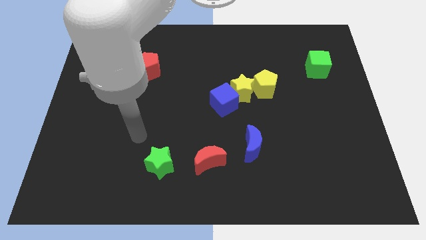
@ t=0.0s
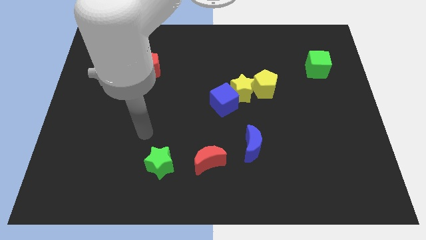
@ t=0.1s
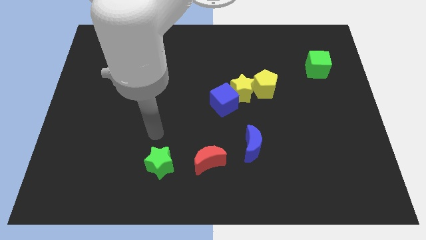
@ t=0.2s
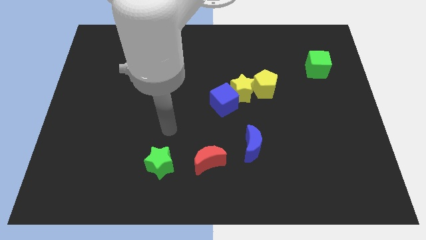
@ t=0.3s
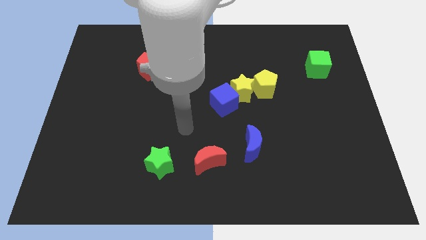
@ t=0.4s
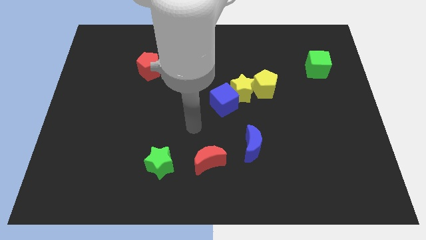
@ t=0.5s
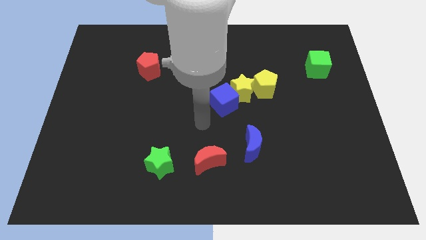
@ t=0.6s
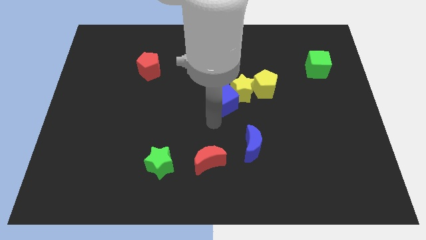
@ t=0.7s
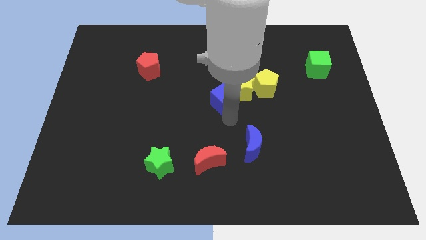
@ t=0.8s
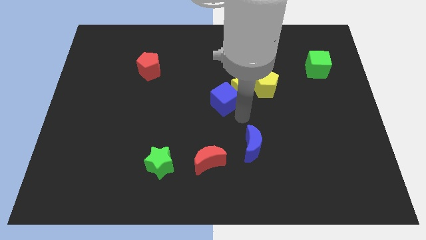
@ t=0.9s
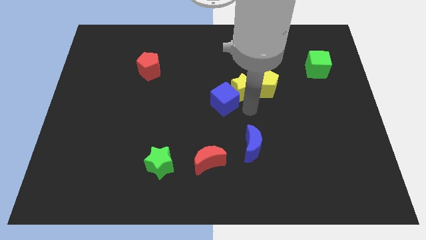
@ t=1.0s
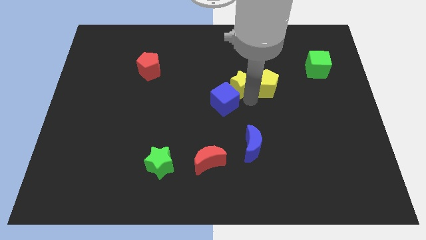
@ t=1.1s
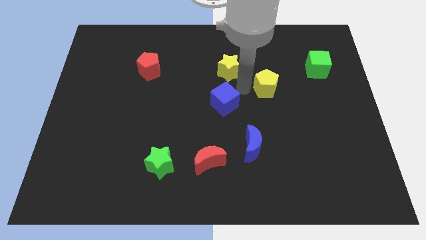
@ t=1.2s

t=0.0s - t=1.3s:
pull the blue cube apart from the yellow star

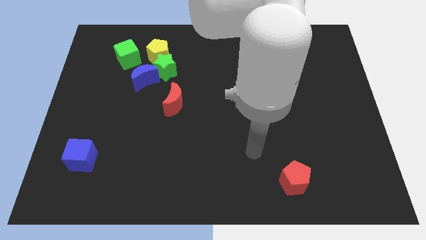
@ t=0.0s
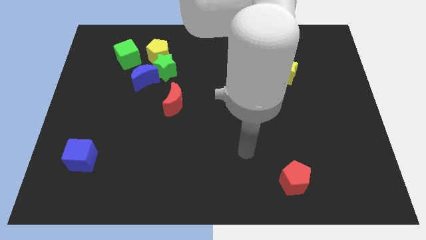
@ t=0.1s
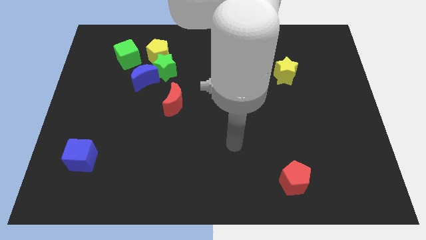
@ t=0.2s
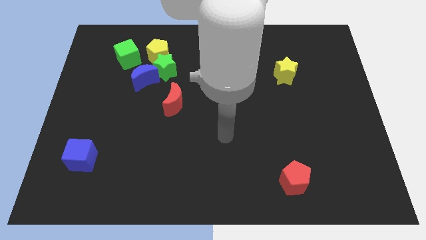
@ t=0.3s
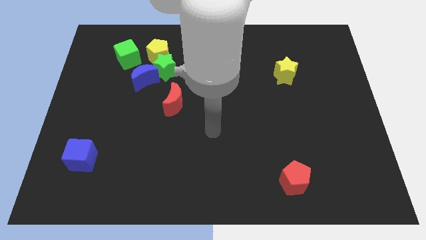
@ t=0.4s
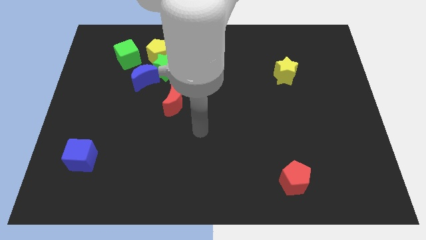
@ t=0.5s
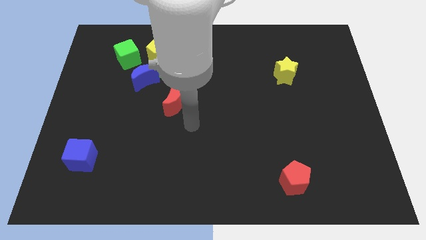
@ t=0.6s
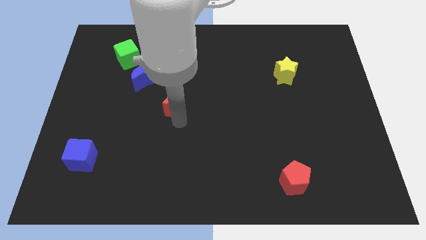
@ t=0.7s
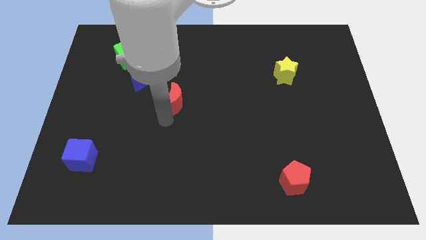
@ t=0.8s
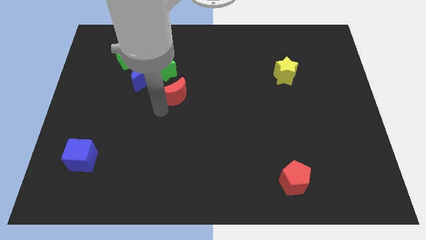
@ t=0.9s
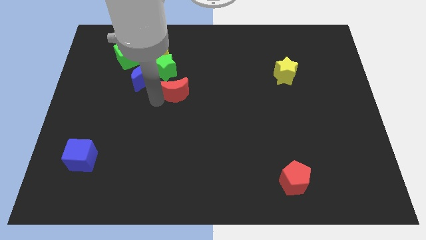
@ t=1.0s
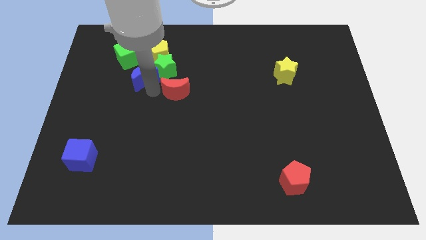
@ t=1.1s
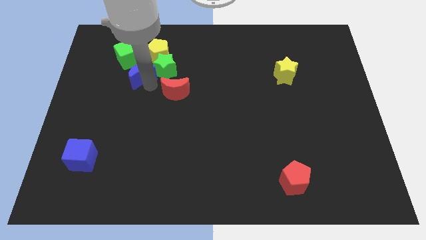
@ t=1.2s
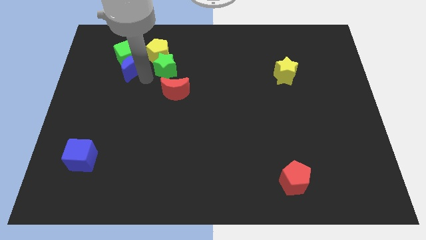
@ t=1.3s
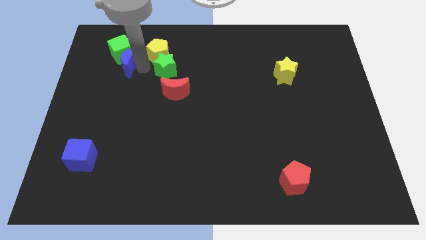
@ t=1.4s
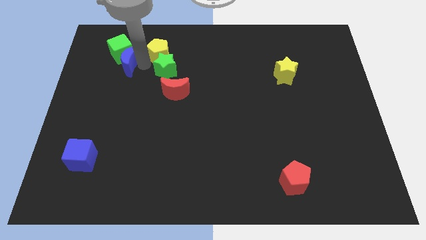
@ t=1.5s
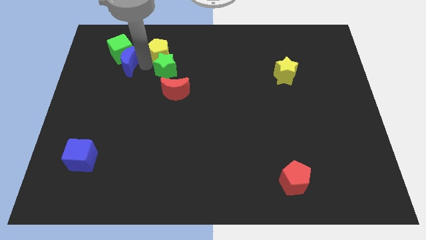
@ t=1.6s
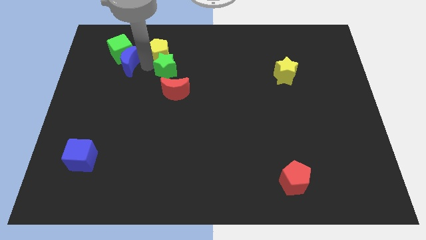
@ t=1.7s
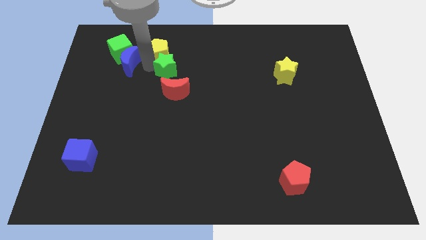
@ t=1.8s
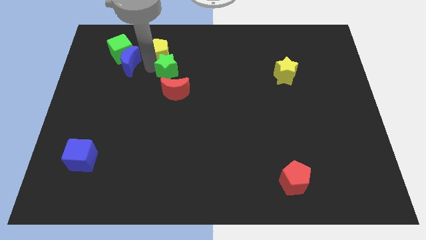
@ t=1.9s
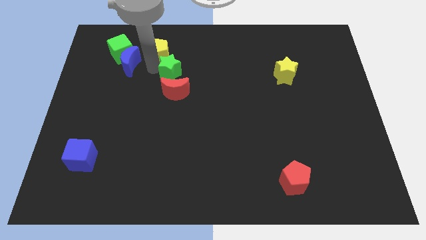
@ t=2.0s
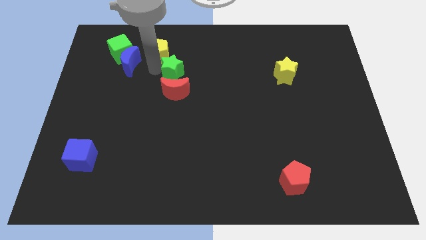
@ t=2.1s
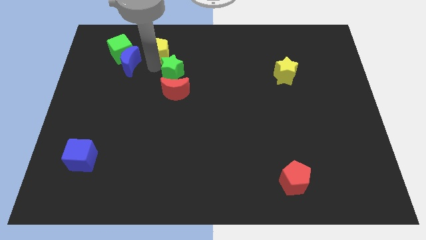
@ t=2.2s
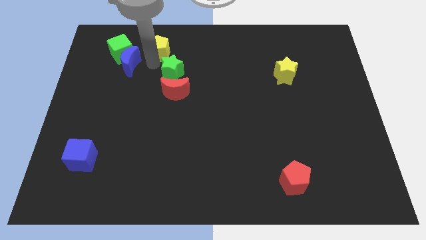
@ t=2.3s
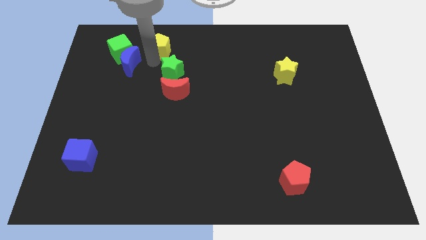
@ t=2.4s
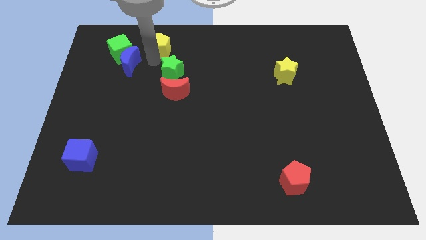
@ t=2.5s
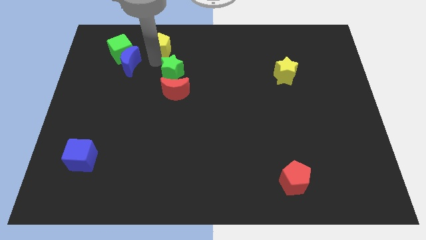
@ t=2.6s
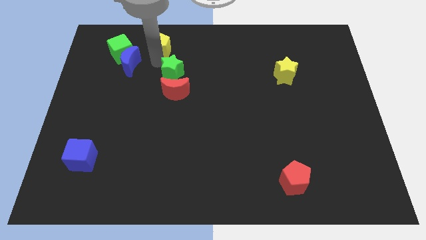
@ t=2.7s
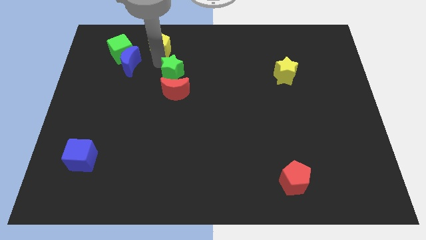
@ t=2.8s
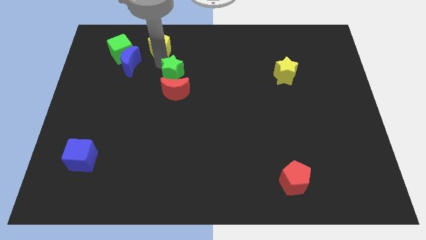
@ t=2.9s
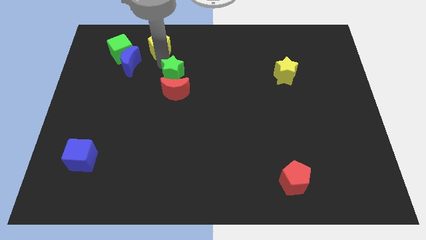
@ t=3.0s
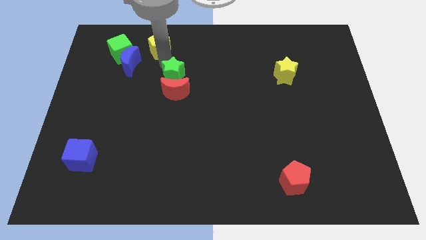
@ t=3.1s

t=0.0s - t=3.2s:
separate the green star from the yellow pentagon and blue moon

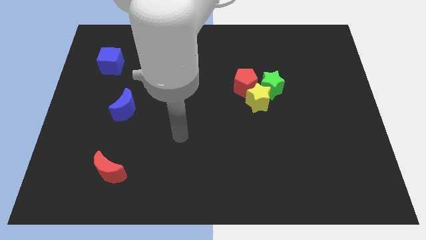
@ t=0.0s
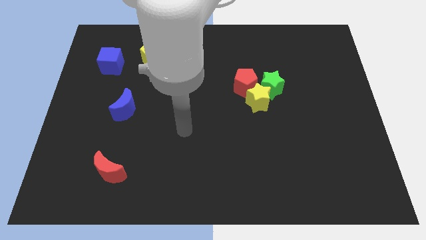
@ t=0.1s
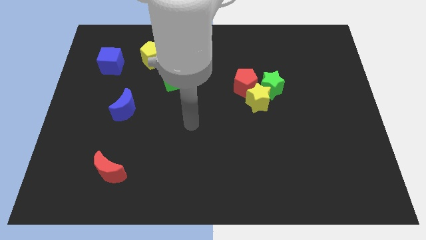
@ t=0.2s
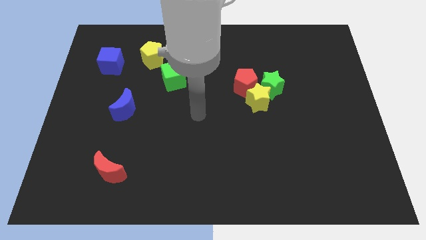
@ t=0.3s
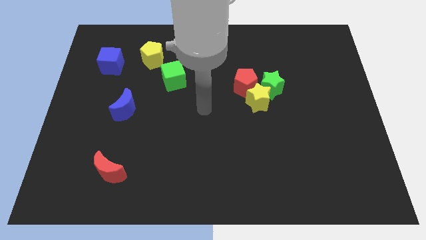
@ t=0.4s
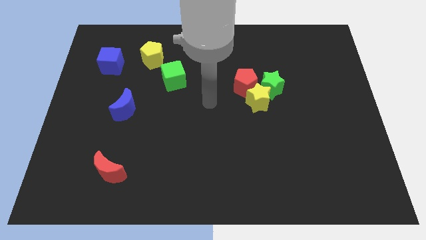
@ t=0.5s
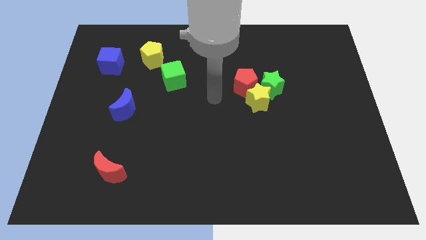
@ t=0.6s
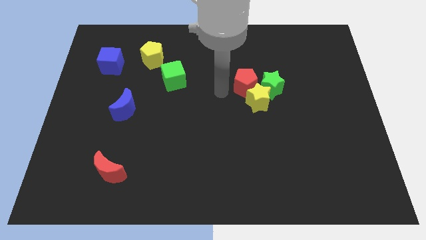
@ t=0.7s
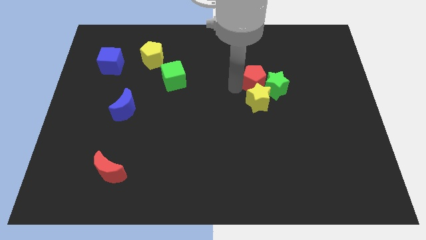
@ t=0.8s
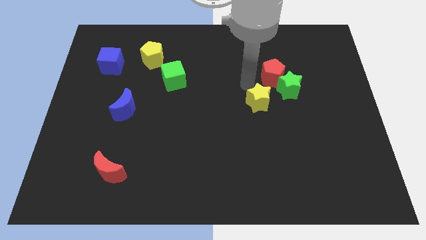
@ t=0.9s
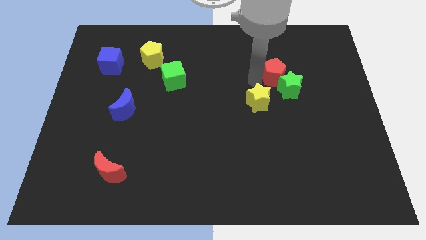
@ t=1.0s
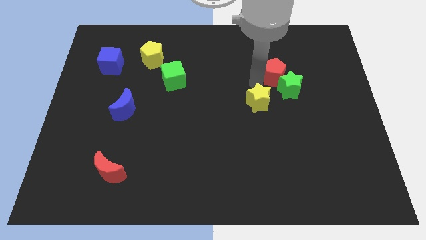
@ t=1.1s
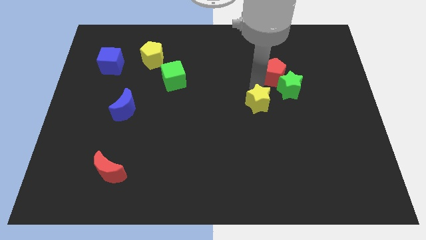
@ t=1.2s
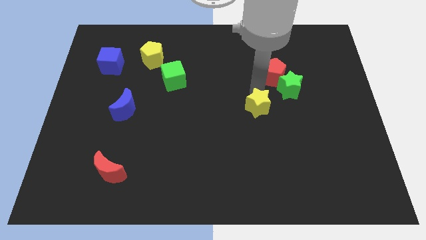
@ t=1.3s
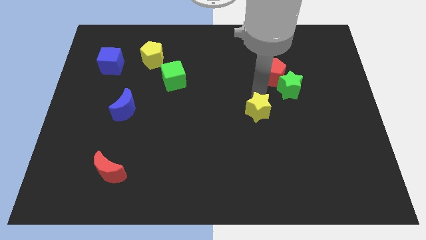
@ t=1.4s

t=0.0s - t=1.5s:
separate the yellow star from the green star and red pentagon

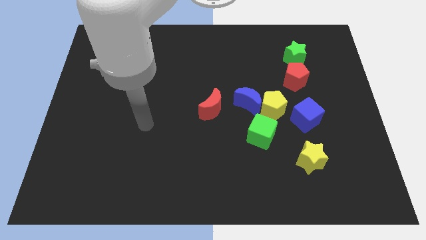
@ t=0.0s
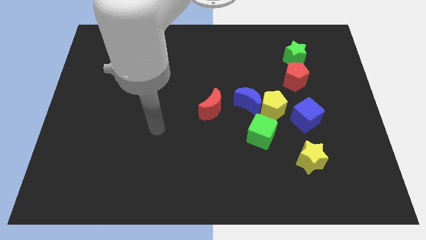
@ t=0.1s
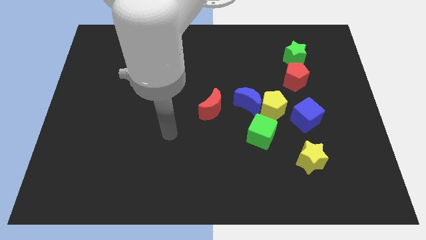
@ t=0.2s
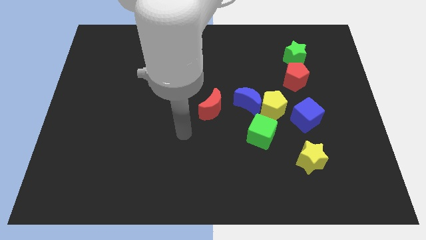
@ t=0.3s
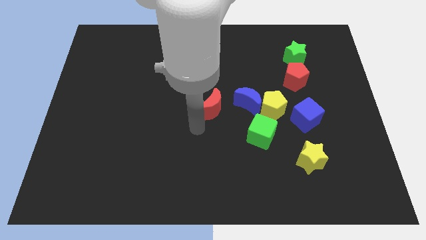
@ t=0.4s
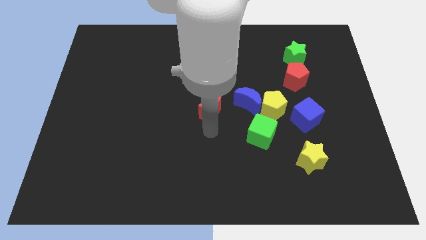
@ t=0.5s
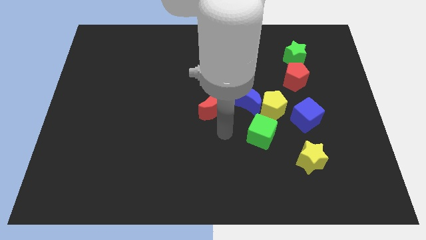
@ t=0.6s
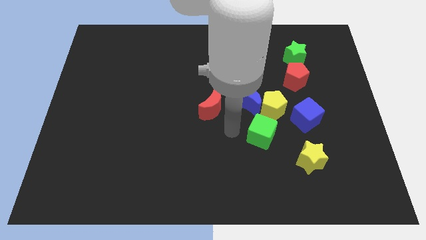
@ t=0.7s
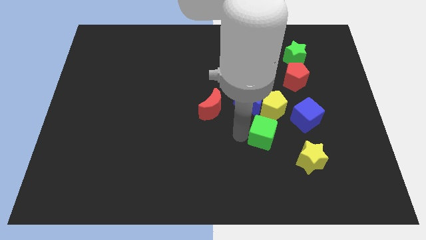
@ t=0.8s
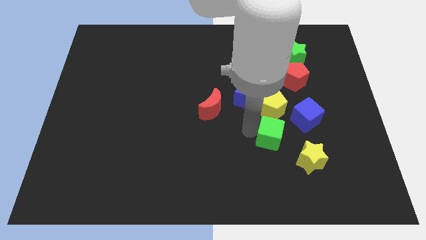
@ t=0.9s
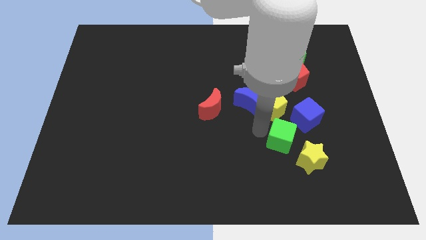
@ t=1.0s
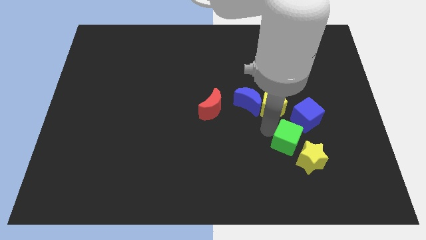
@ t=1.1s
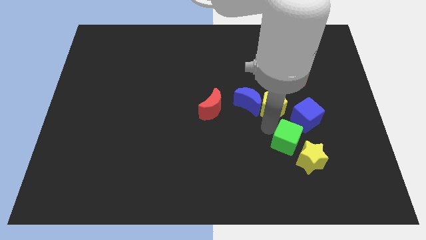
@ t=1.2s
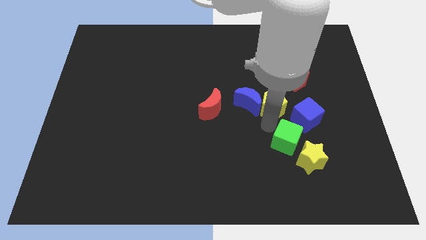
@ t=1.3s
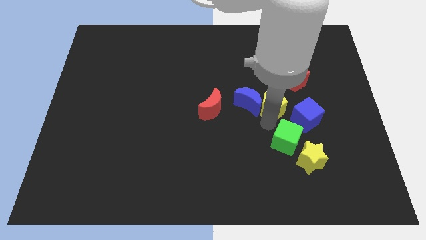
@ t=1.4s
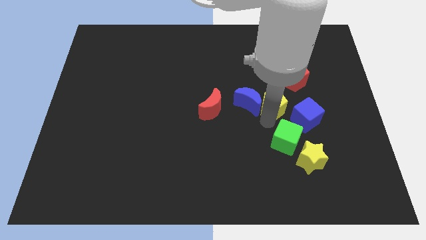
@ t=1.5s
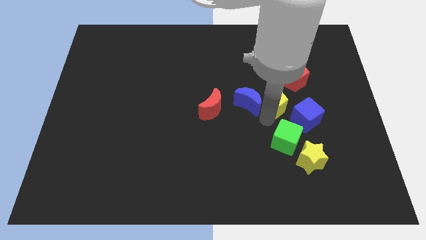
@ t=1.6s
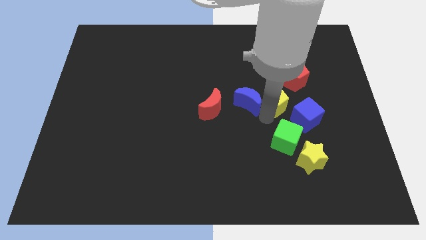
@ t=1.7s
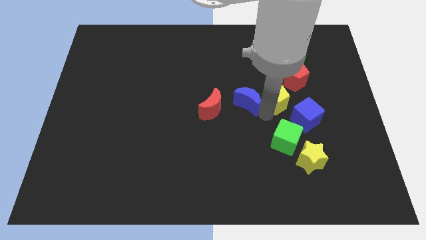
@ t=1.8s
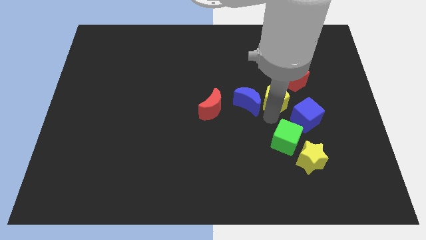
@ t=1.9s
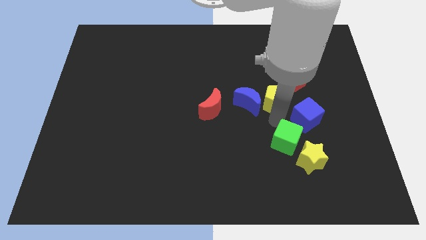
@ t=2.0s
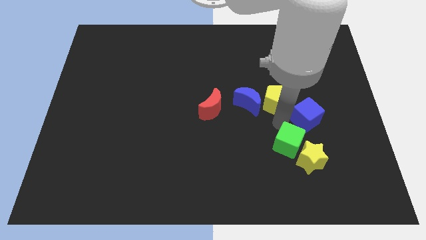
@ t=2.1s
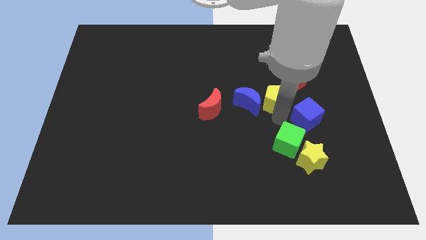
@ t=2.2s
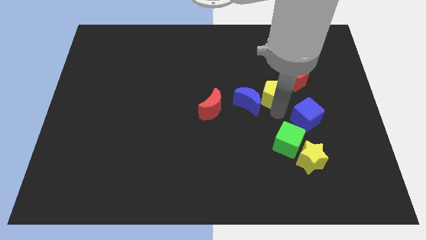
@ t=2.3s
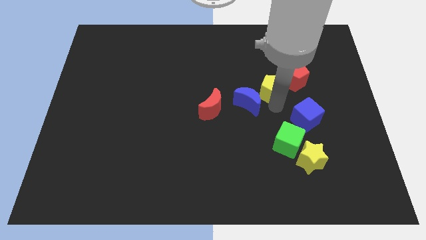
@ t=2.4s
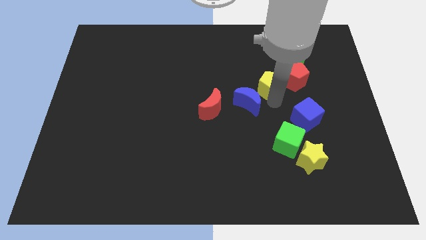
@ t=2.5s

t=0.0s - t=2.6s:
pull the yellow pentagon apart from the group

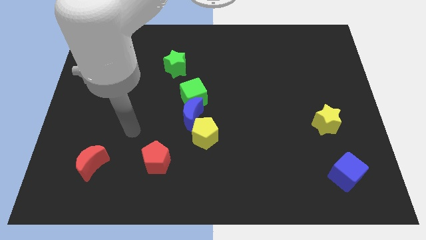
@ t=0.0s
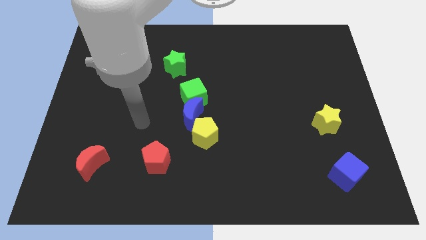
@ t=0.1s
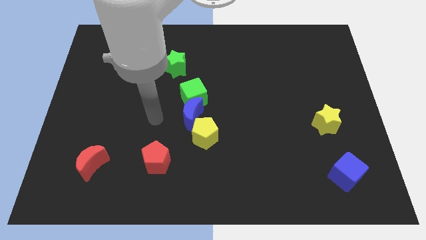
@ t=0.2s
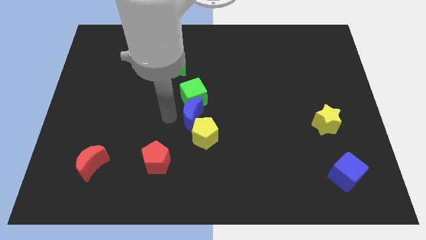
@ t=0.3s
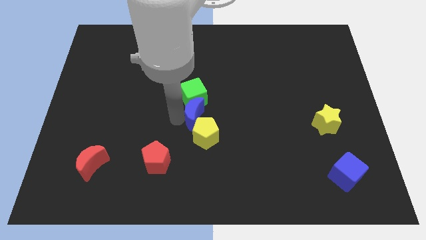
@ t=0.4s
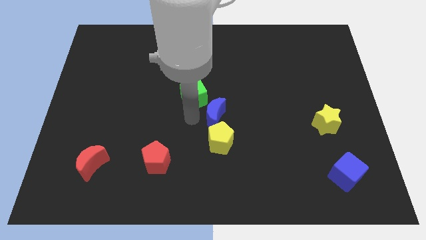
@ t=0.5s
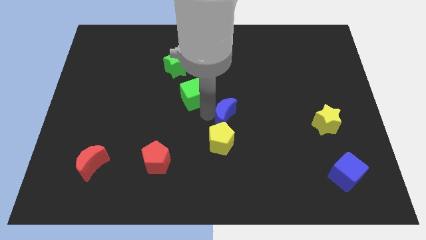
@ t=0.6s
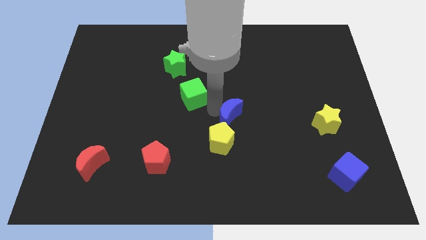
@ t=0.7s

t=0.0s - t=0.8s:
move the green cube away from the blue moon
